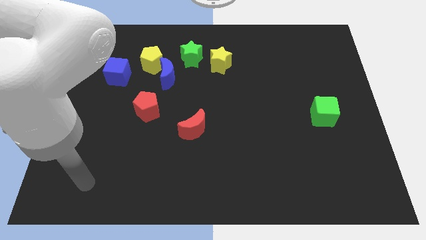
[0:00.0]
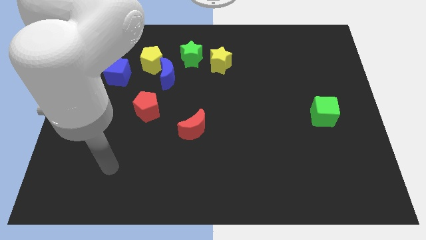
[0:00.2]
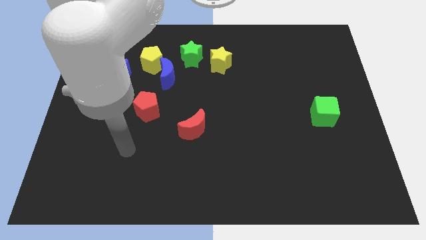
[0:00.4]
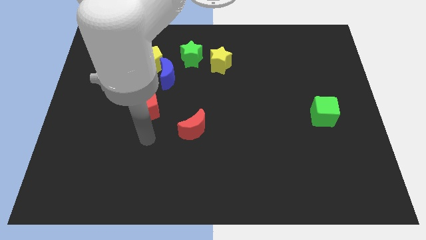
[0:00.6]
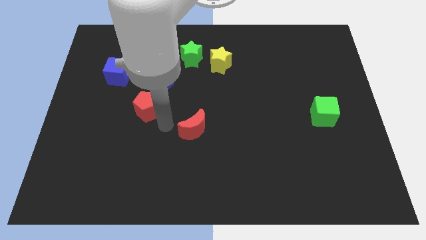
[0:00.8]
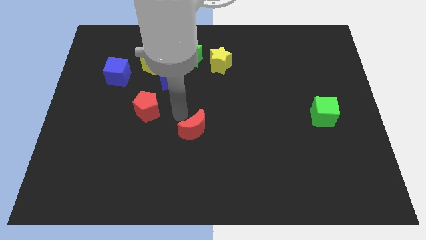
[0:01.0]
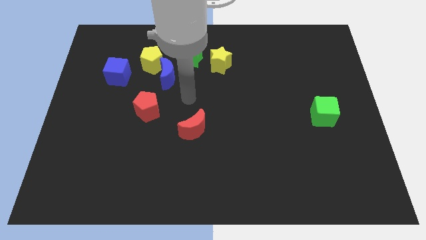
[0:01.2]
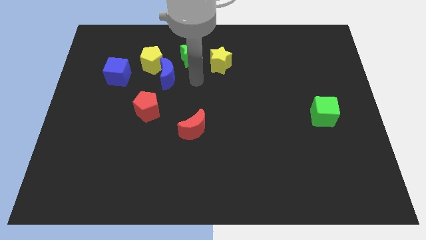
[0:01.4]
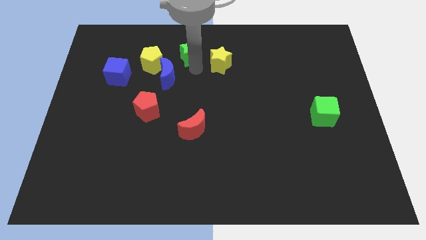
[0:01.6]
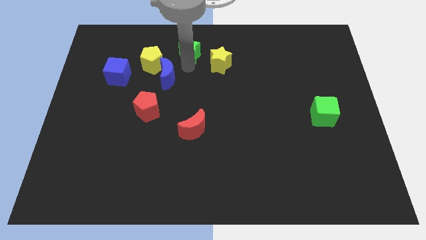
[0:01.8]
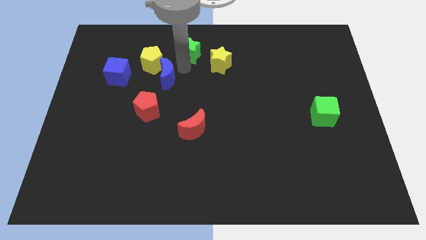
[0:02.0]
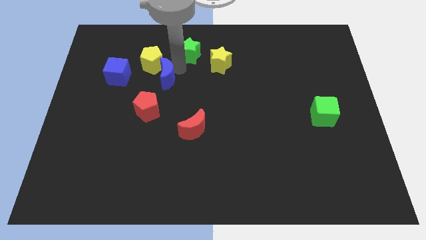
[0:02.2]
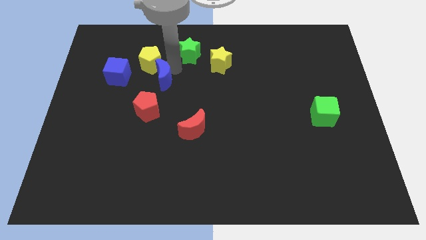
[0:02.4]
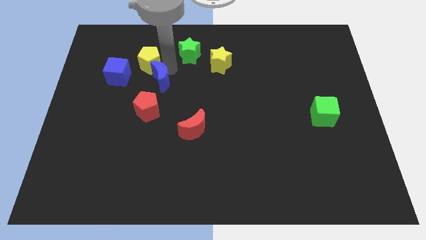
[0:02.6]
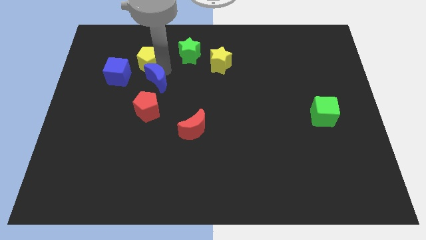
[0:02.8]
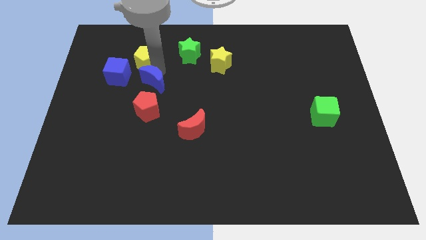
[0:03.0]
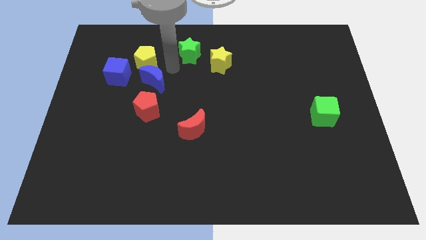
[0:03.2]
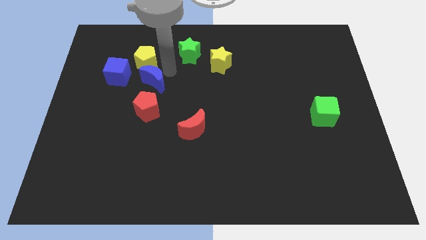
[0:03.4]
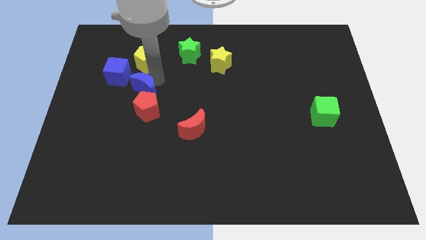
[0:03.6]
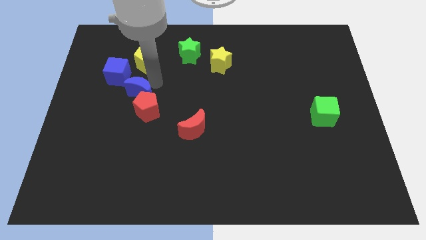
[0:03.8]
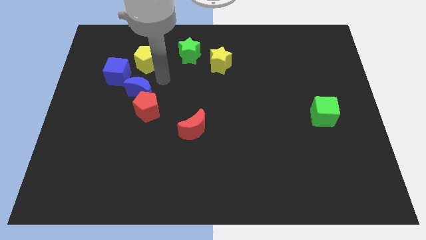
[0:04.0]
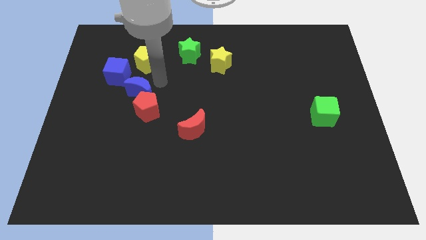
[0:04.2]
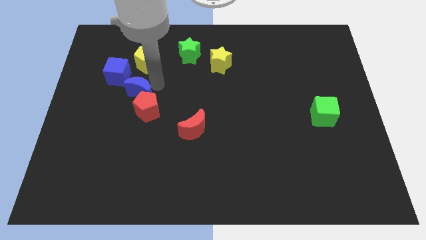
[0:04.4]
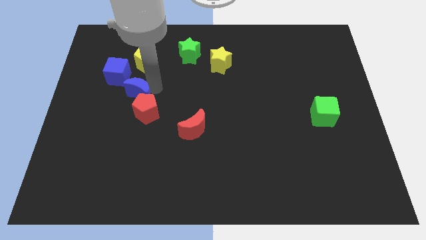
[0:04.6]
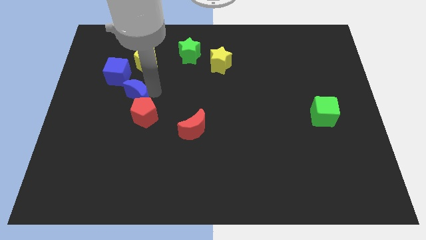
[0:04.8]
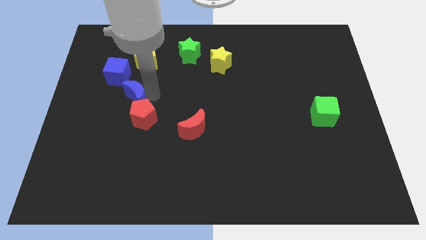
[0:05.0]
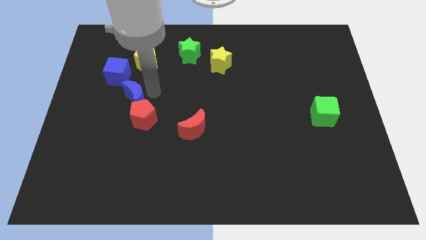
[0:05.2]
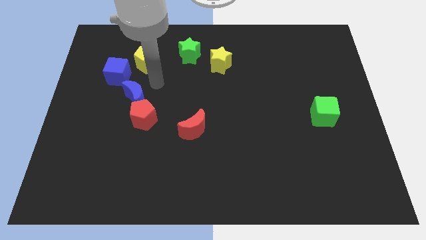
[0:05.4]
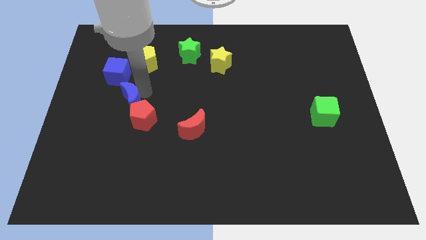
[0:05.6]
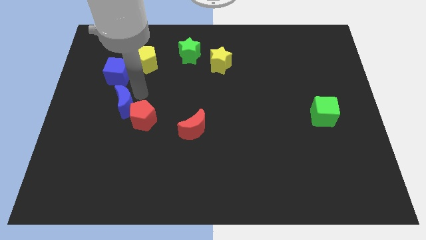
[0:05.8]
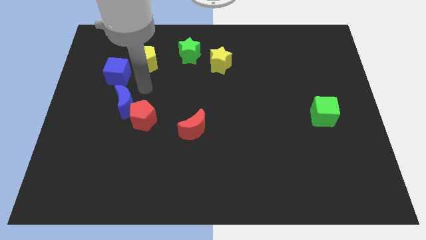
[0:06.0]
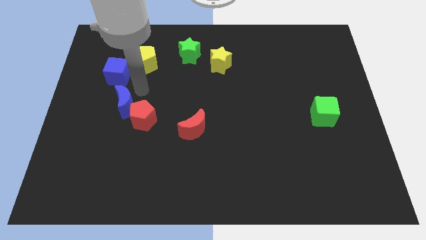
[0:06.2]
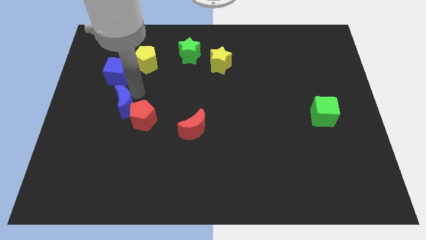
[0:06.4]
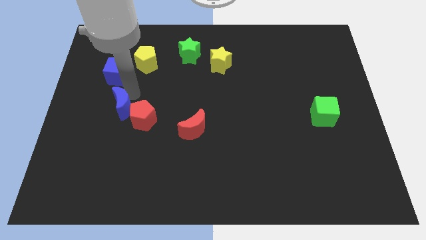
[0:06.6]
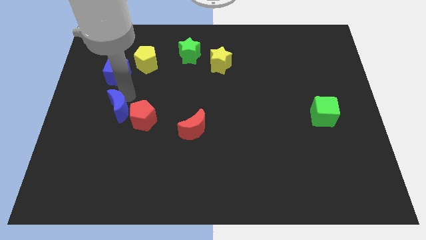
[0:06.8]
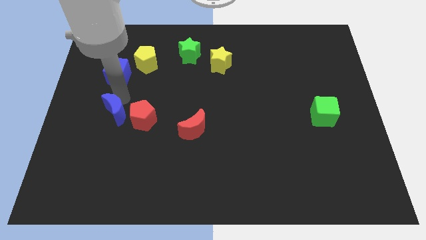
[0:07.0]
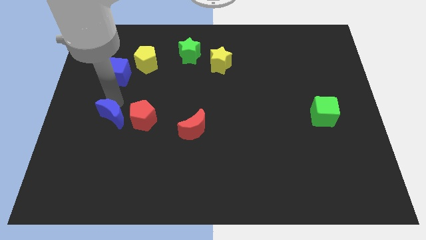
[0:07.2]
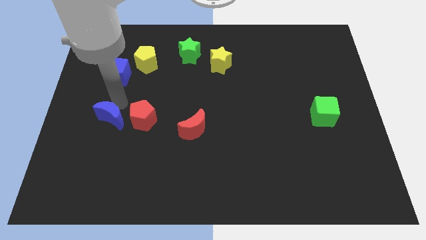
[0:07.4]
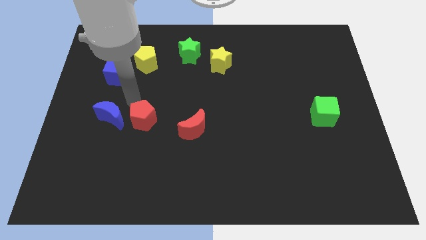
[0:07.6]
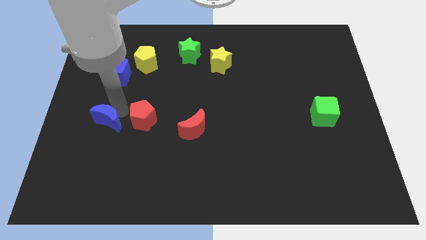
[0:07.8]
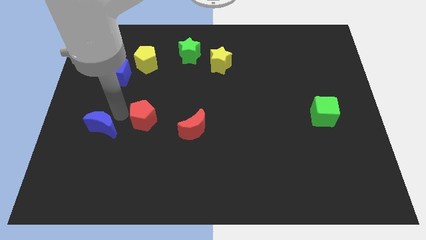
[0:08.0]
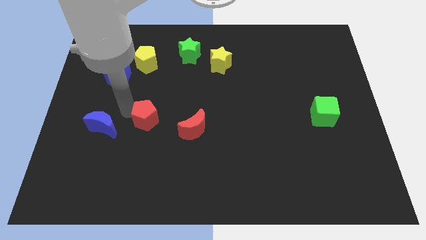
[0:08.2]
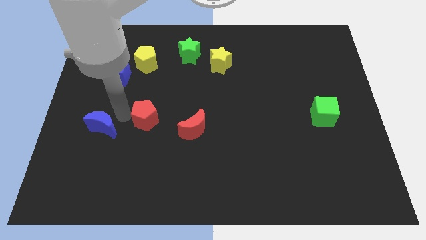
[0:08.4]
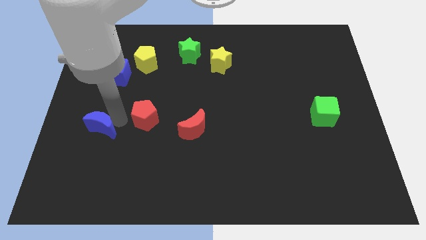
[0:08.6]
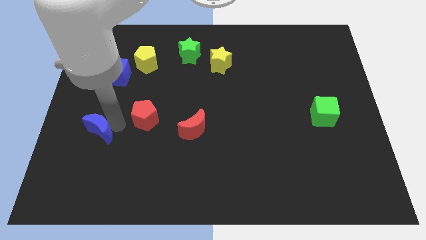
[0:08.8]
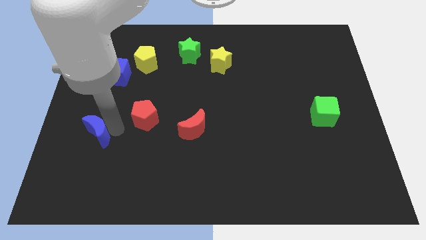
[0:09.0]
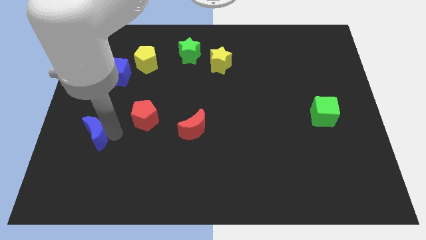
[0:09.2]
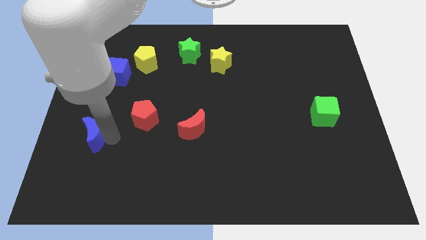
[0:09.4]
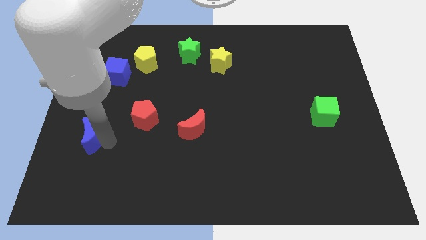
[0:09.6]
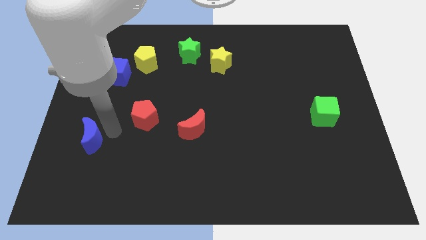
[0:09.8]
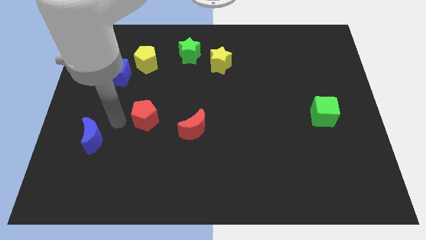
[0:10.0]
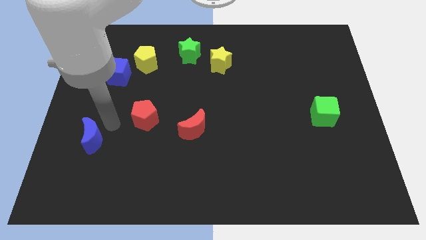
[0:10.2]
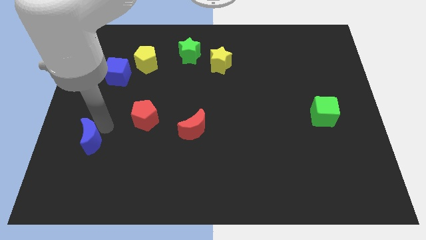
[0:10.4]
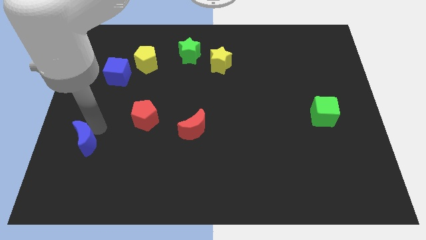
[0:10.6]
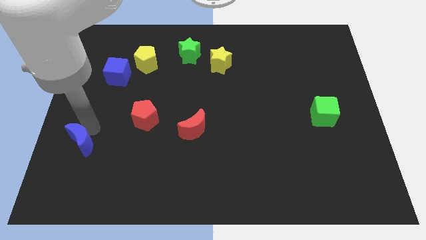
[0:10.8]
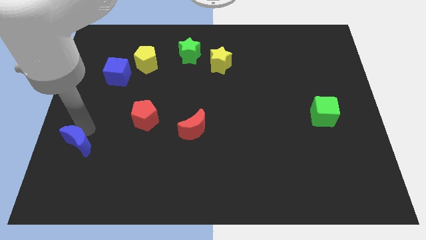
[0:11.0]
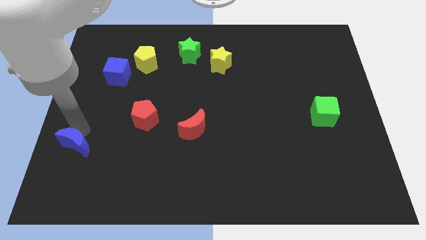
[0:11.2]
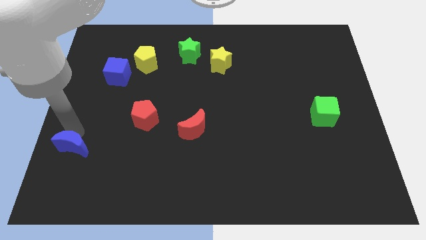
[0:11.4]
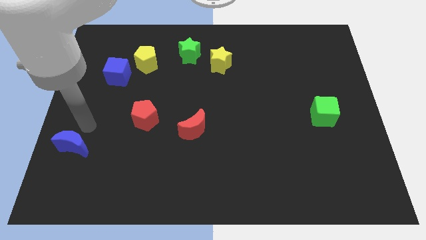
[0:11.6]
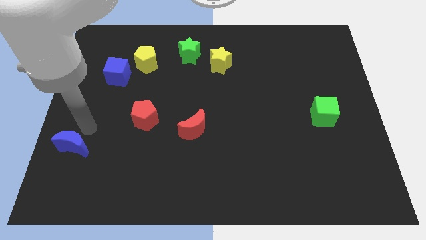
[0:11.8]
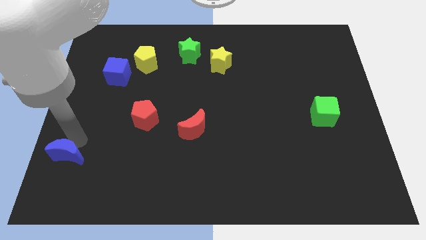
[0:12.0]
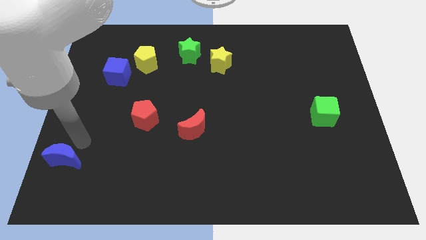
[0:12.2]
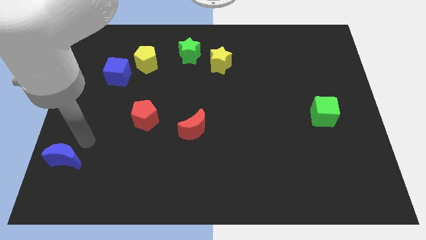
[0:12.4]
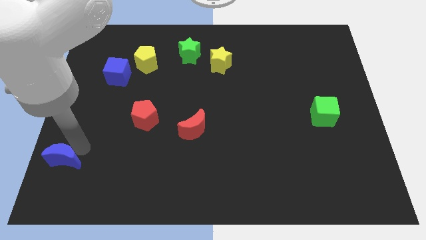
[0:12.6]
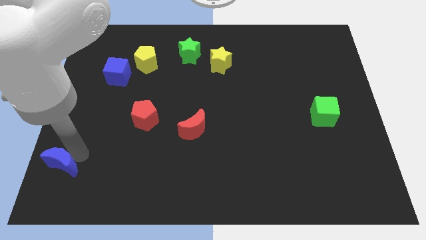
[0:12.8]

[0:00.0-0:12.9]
slide the blue moon to the bottom left
